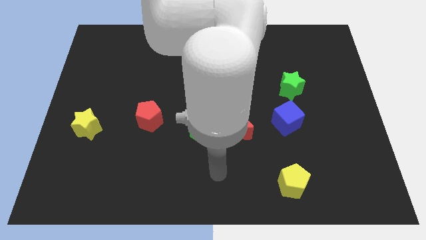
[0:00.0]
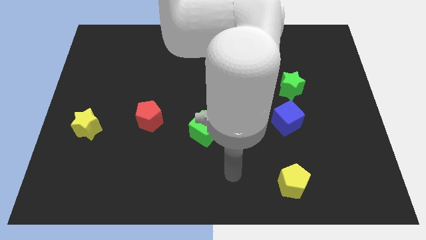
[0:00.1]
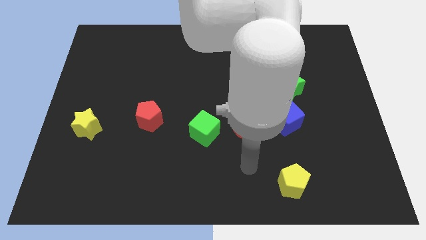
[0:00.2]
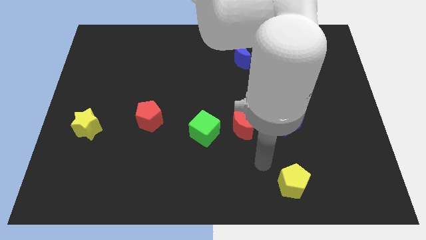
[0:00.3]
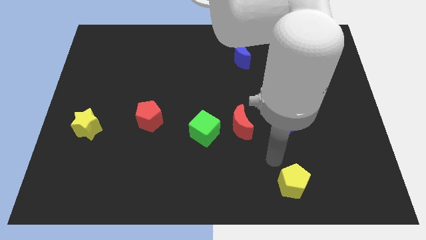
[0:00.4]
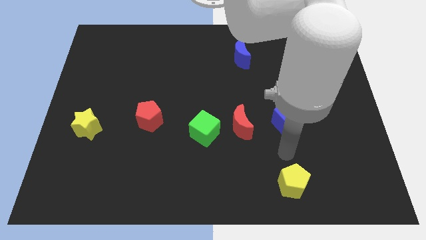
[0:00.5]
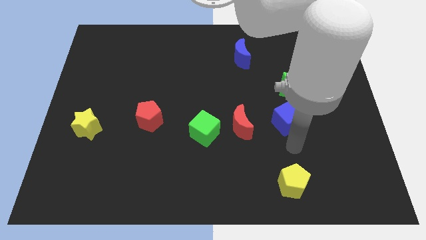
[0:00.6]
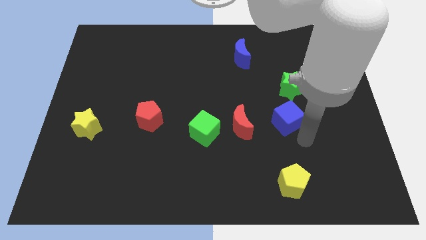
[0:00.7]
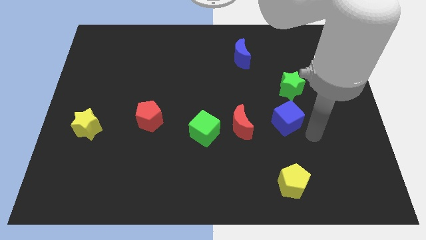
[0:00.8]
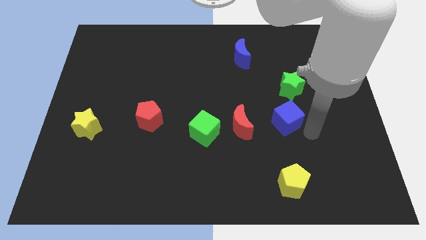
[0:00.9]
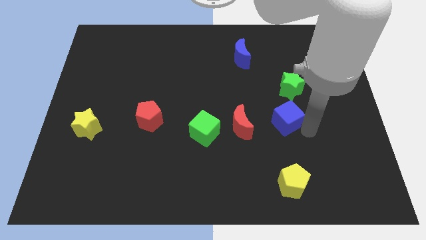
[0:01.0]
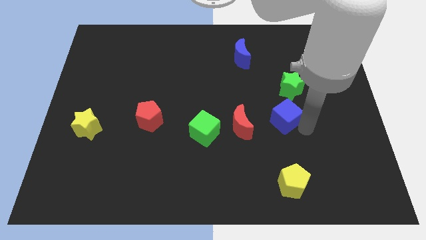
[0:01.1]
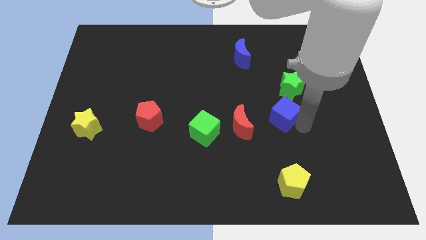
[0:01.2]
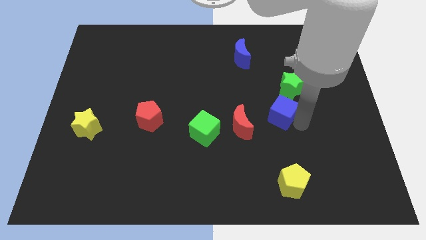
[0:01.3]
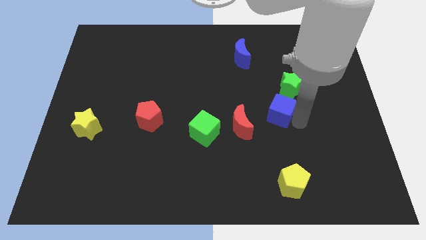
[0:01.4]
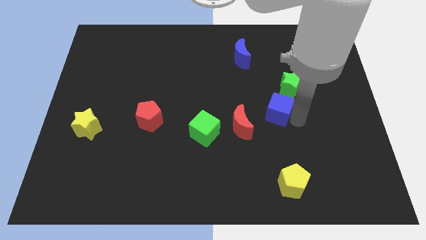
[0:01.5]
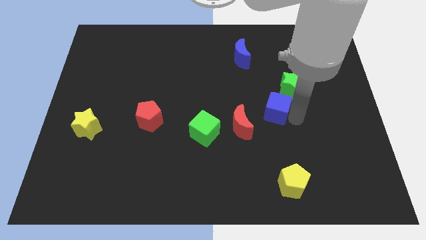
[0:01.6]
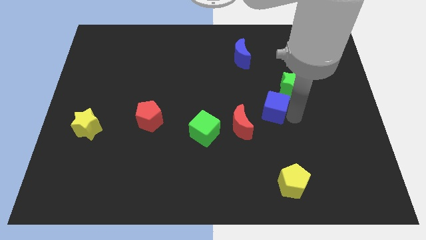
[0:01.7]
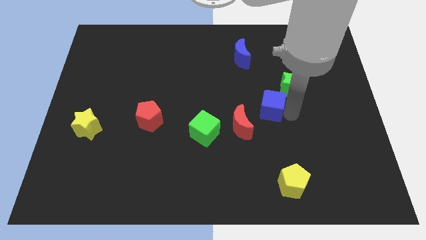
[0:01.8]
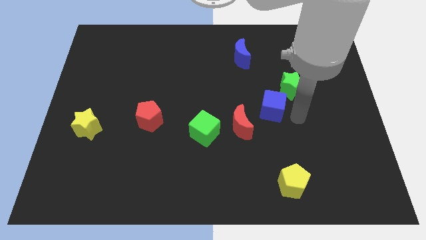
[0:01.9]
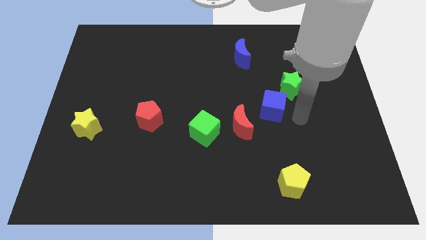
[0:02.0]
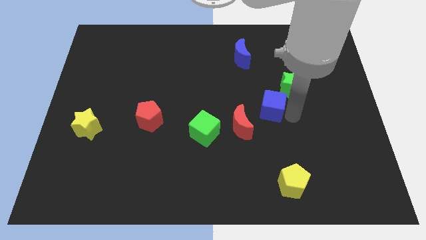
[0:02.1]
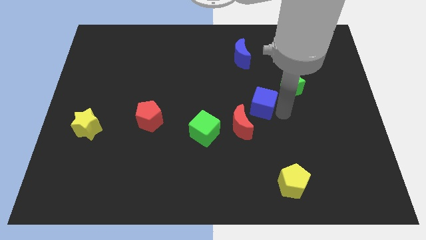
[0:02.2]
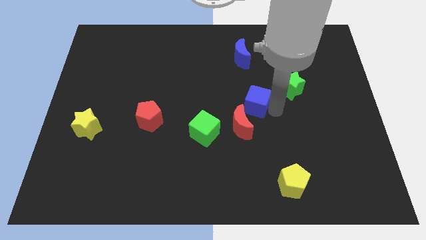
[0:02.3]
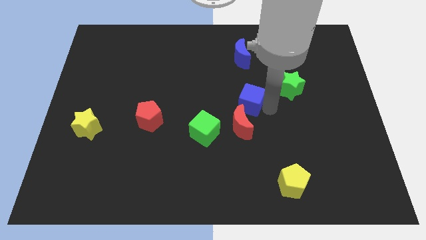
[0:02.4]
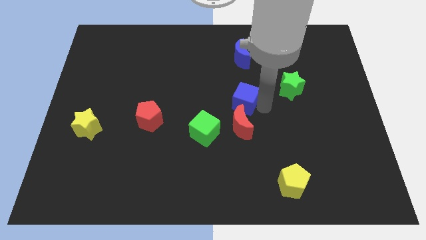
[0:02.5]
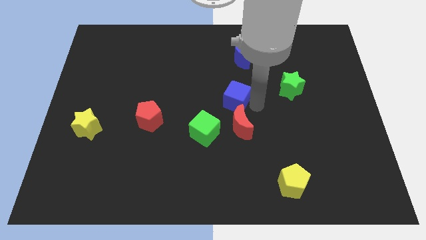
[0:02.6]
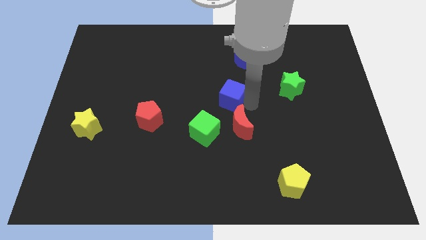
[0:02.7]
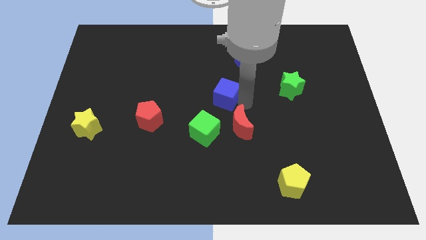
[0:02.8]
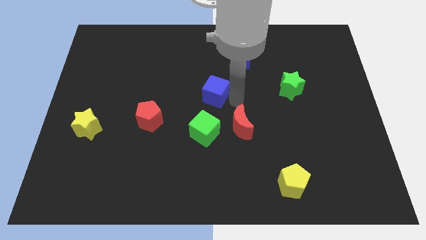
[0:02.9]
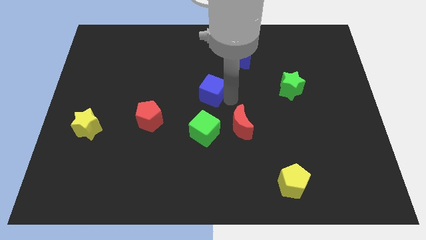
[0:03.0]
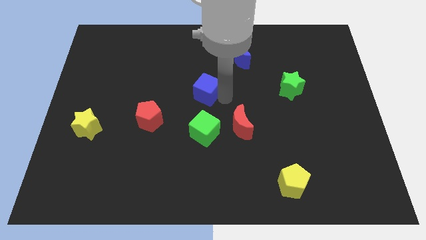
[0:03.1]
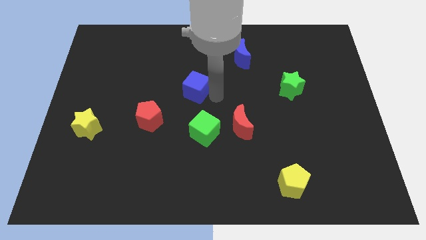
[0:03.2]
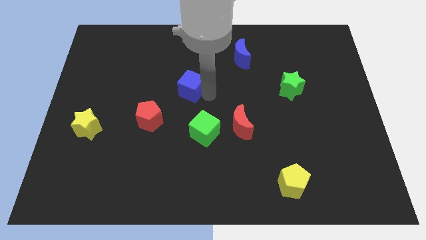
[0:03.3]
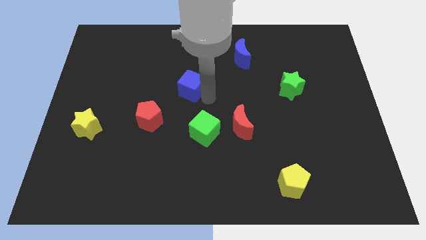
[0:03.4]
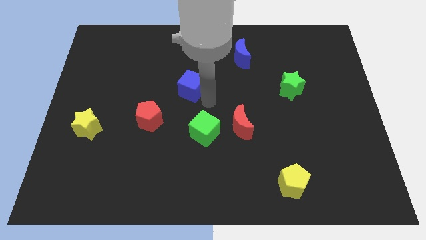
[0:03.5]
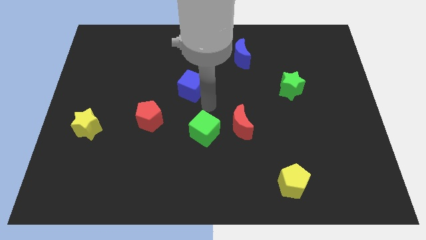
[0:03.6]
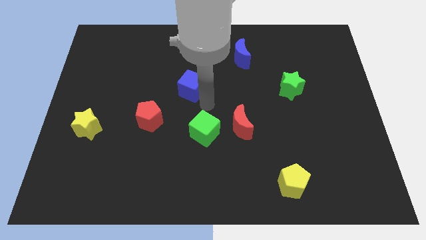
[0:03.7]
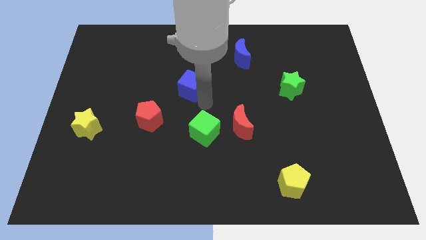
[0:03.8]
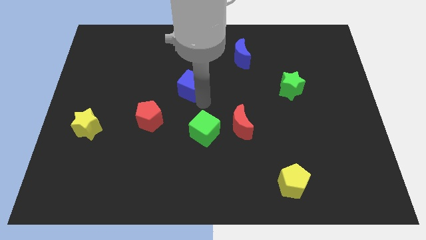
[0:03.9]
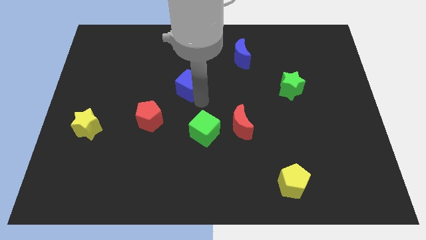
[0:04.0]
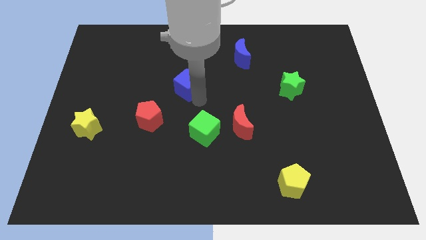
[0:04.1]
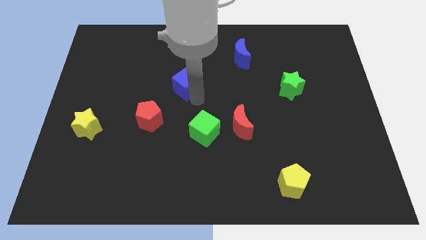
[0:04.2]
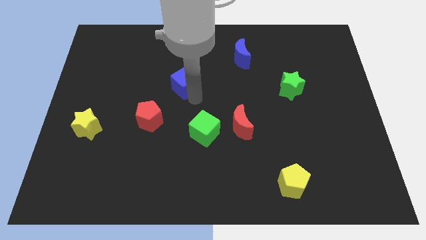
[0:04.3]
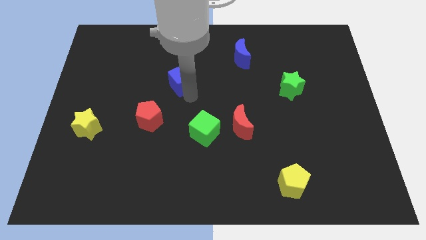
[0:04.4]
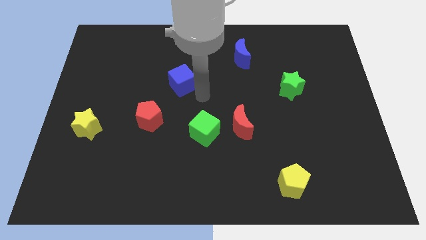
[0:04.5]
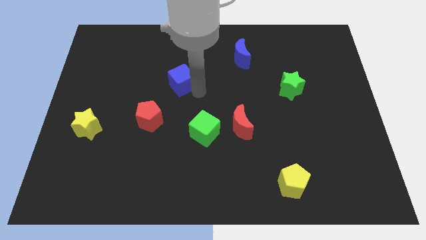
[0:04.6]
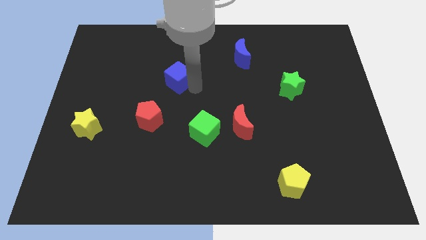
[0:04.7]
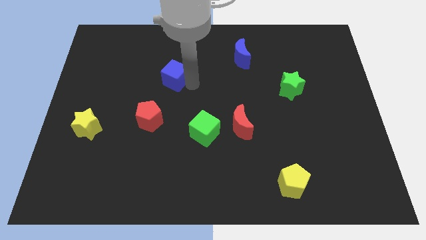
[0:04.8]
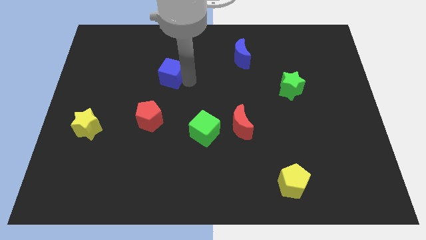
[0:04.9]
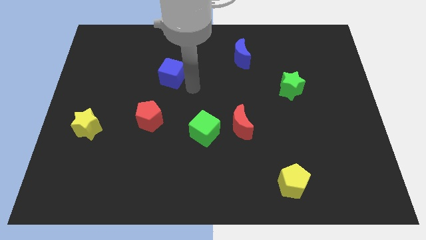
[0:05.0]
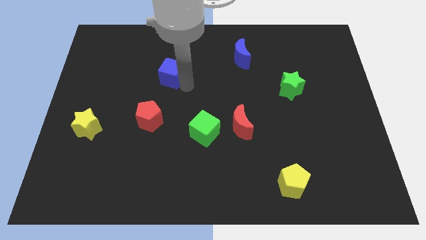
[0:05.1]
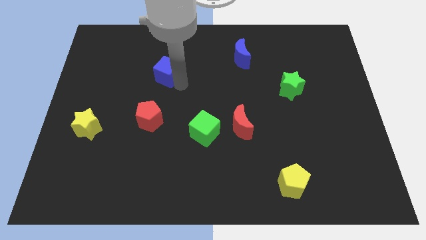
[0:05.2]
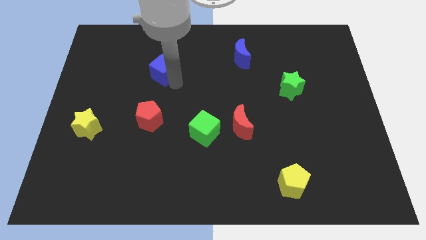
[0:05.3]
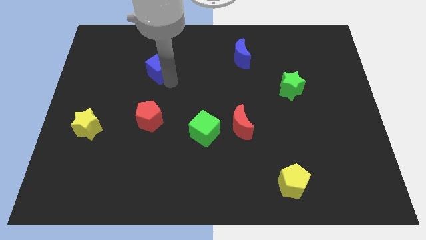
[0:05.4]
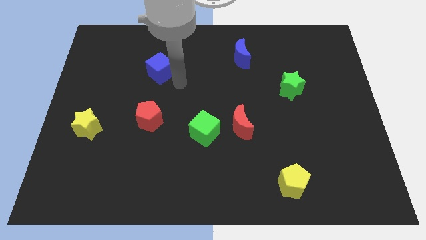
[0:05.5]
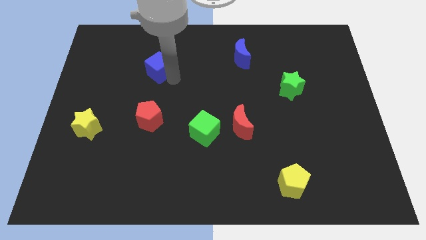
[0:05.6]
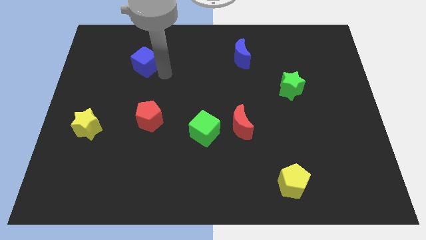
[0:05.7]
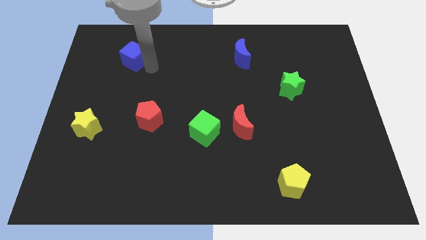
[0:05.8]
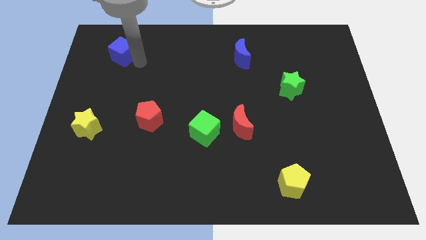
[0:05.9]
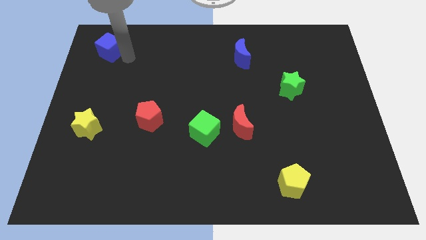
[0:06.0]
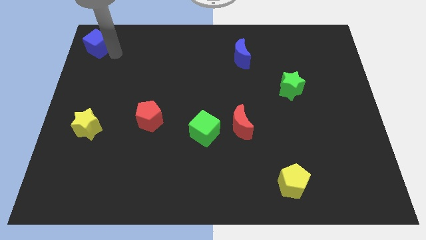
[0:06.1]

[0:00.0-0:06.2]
slide the blue cube to the top left
